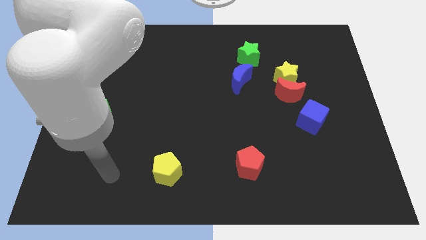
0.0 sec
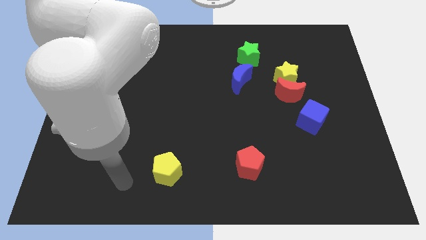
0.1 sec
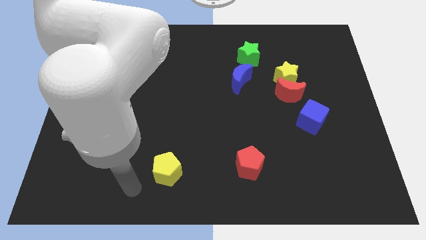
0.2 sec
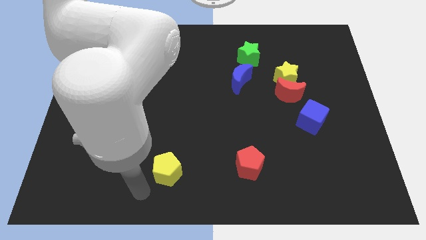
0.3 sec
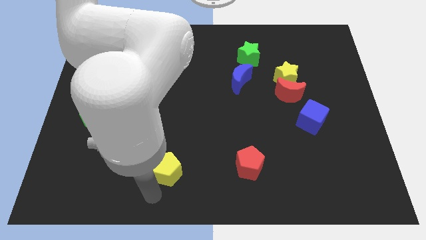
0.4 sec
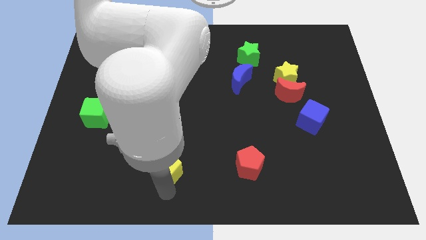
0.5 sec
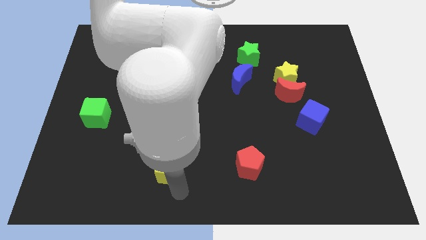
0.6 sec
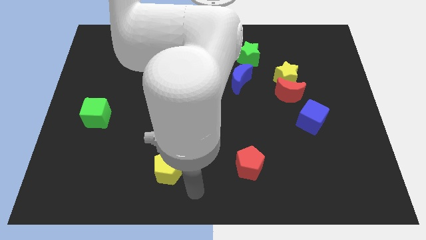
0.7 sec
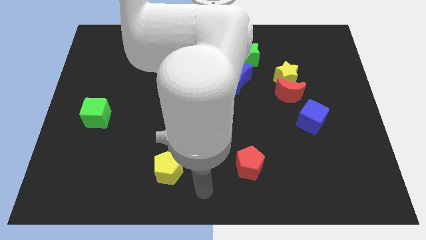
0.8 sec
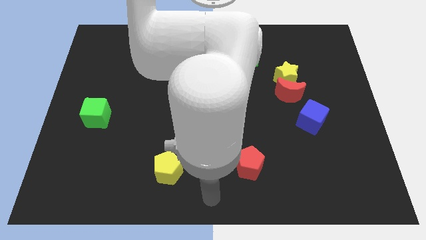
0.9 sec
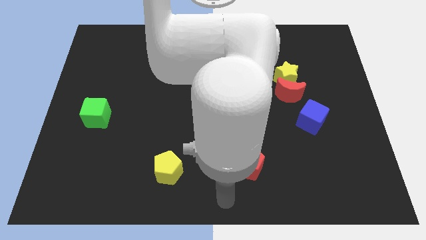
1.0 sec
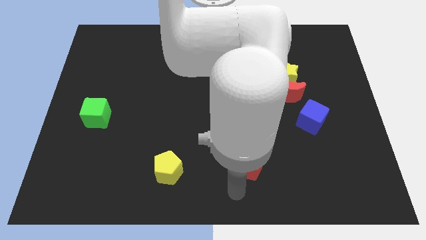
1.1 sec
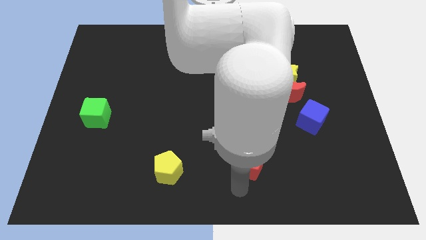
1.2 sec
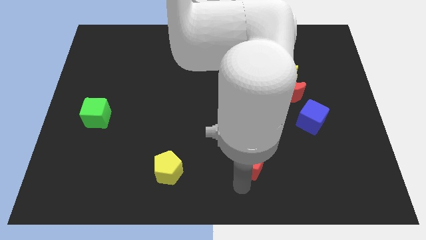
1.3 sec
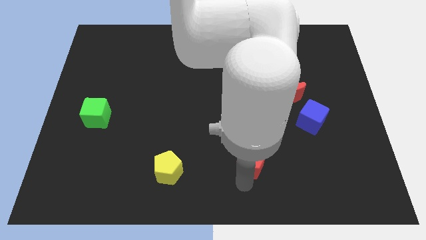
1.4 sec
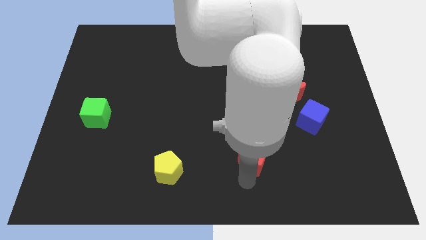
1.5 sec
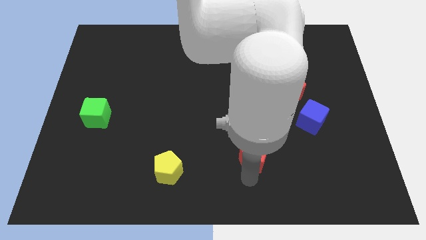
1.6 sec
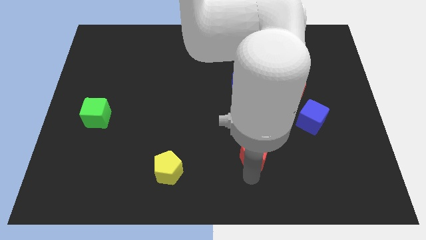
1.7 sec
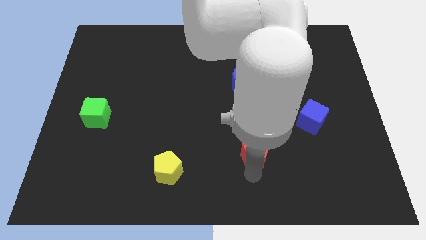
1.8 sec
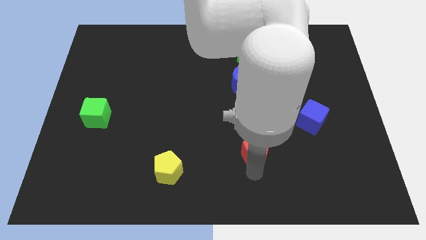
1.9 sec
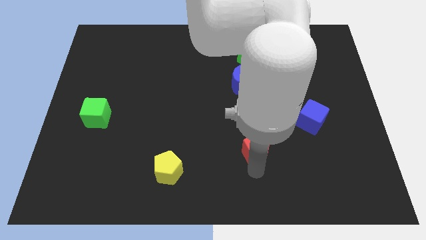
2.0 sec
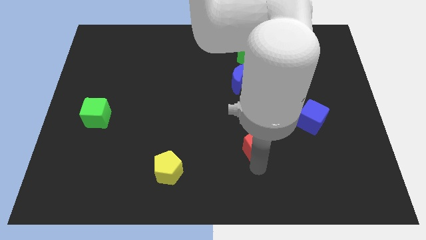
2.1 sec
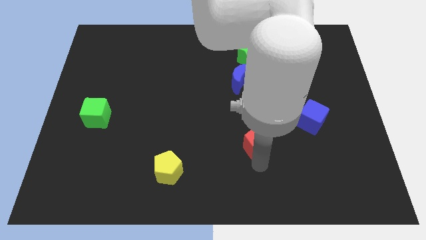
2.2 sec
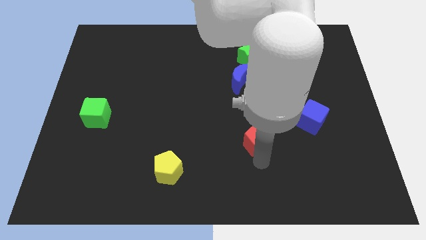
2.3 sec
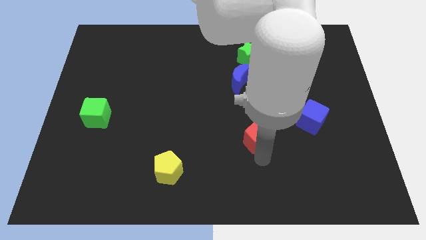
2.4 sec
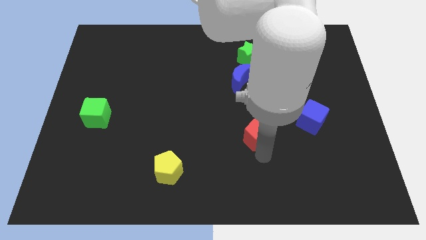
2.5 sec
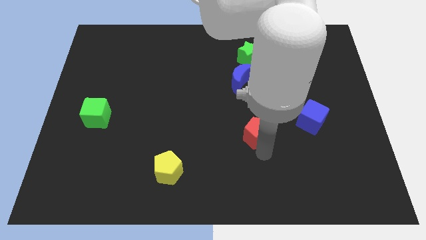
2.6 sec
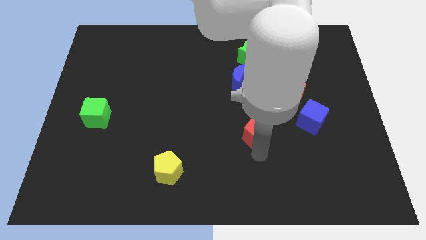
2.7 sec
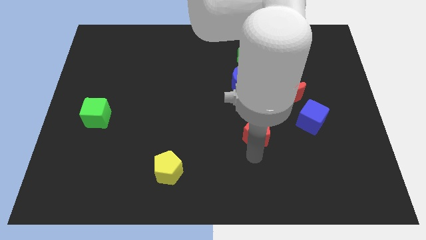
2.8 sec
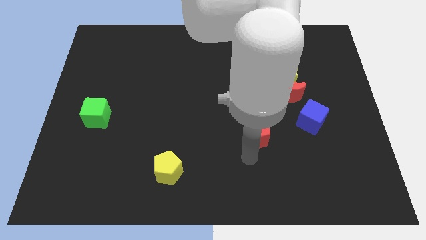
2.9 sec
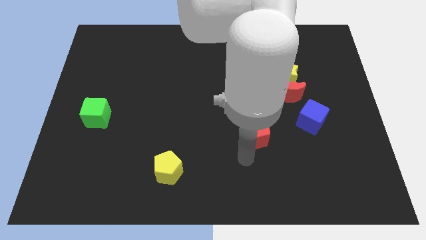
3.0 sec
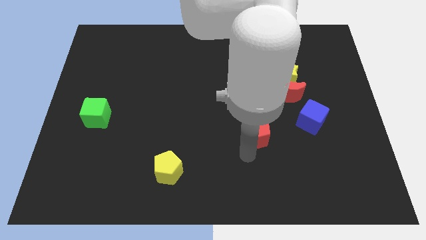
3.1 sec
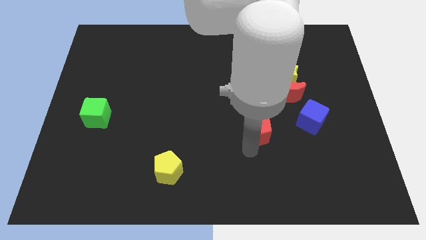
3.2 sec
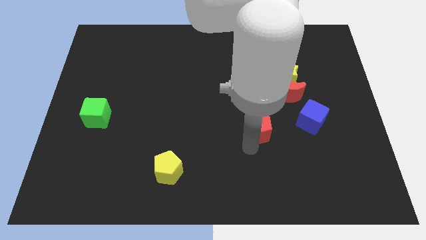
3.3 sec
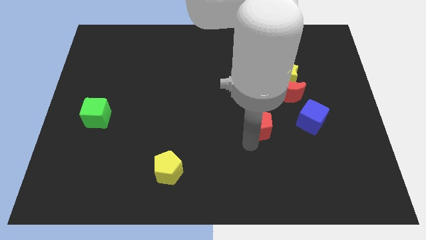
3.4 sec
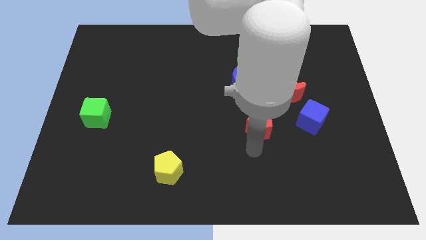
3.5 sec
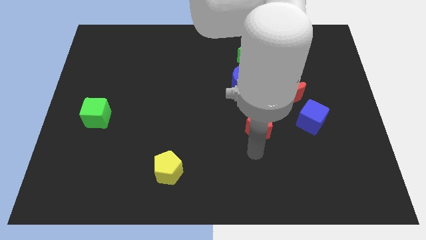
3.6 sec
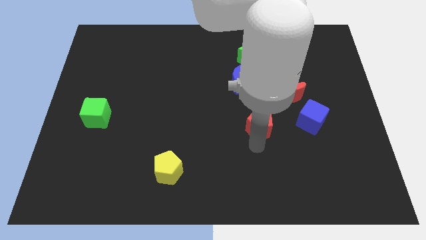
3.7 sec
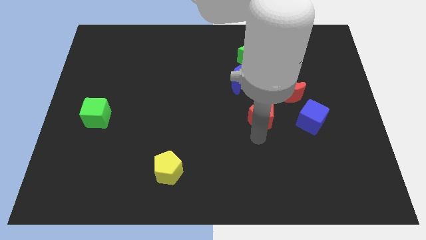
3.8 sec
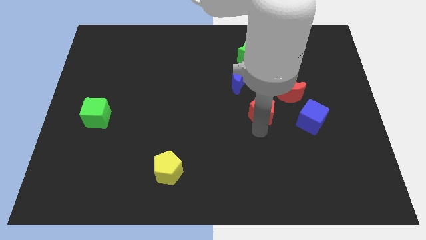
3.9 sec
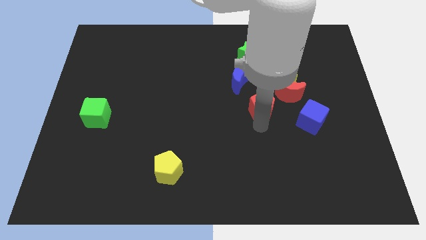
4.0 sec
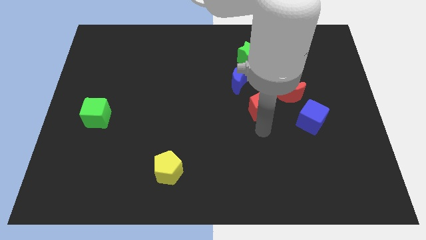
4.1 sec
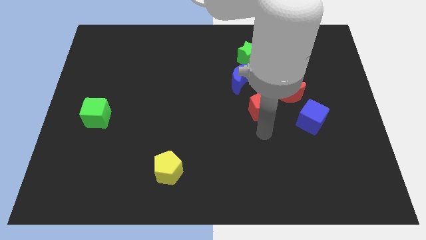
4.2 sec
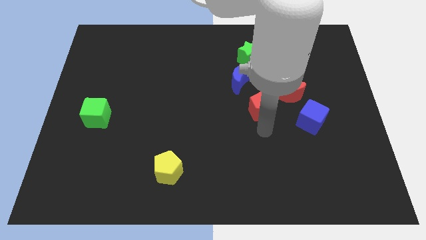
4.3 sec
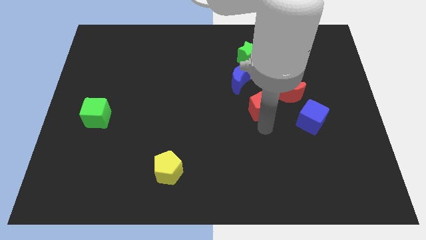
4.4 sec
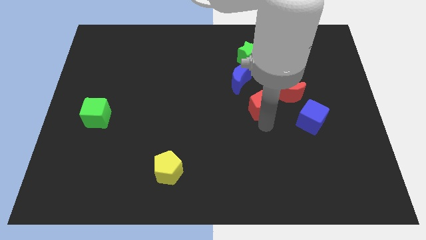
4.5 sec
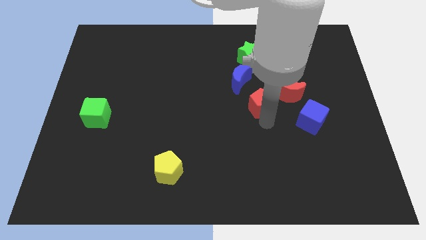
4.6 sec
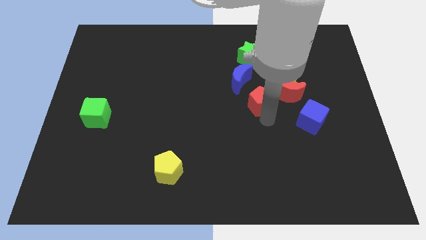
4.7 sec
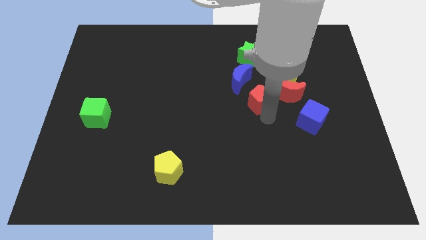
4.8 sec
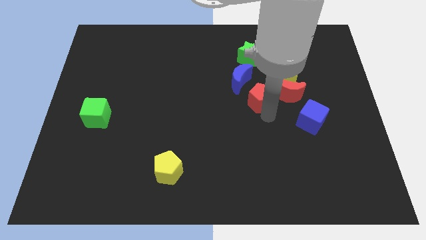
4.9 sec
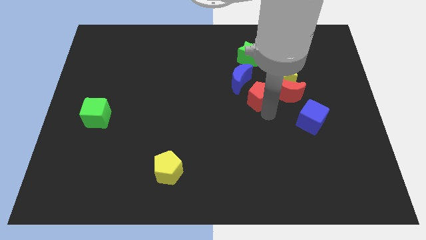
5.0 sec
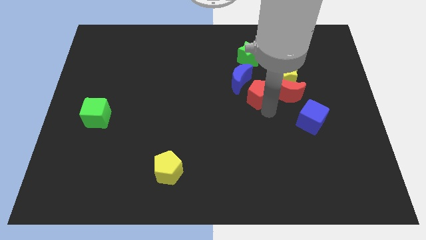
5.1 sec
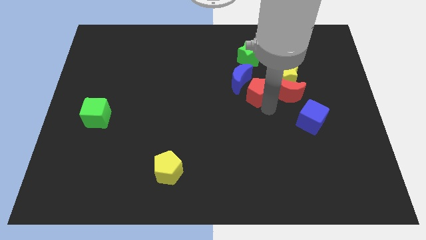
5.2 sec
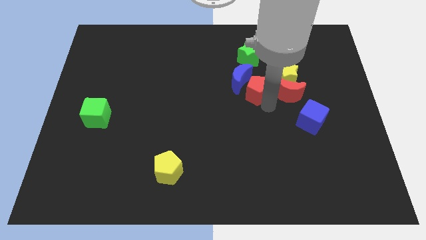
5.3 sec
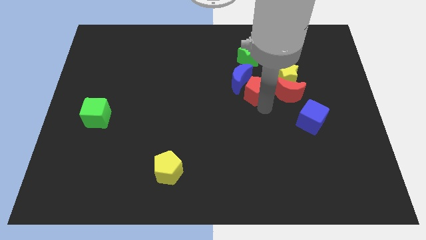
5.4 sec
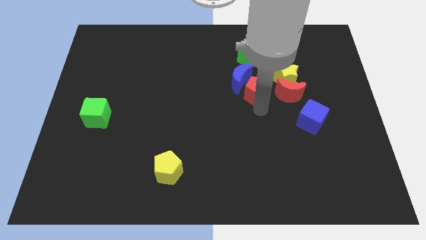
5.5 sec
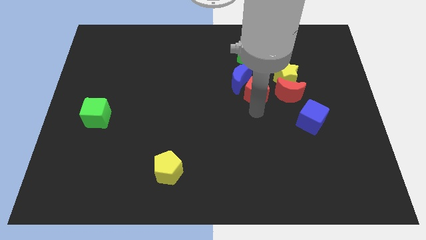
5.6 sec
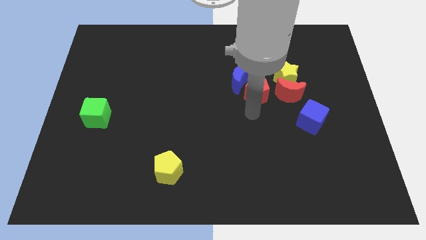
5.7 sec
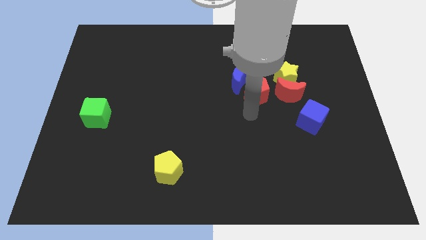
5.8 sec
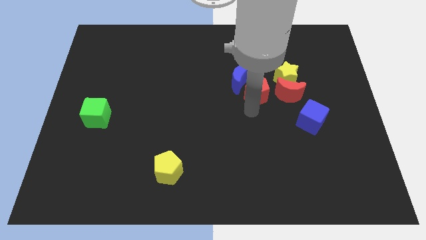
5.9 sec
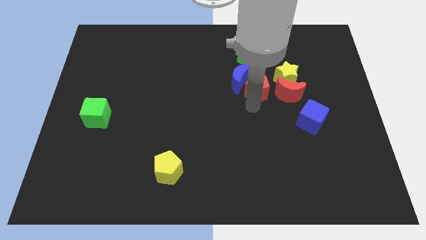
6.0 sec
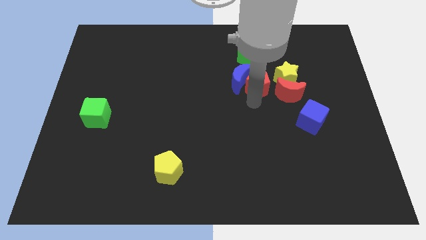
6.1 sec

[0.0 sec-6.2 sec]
move the red pentagon to the top right of the blue moon

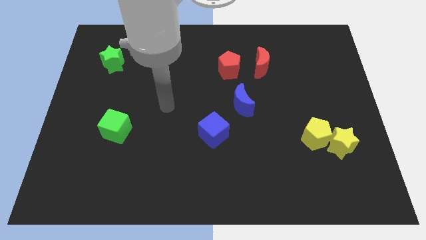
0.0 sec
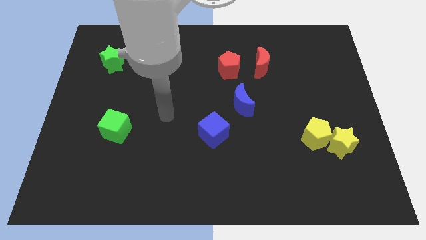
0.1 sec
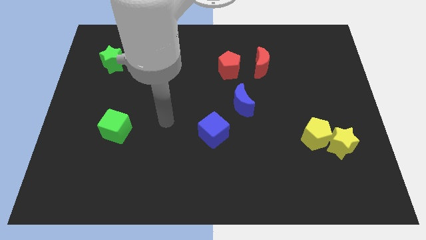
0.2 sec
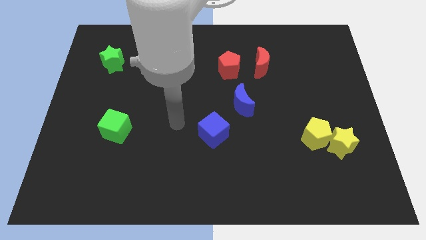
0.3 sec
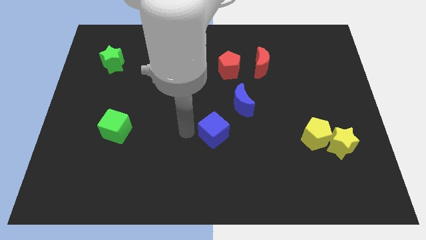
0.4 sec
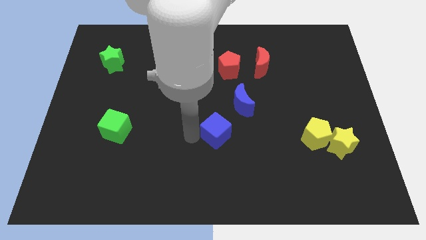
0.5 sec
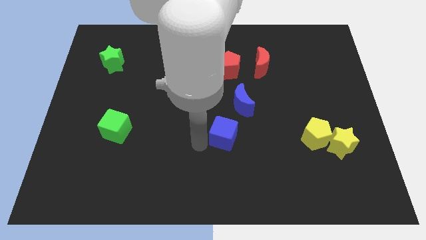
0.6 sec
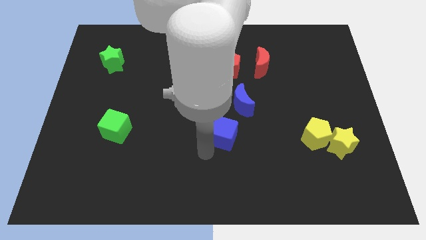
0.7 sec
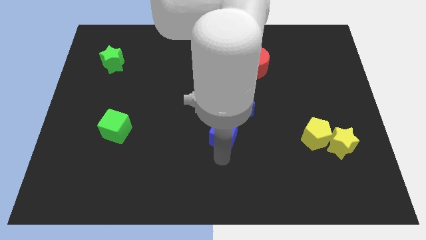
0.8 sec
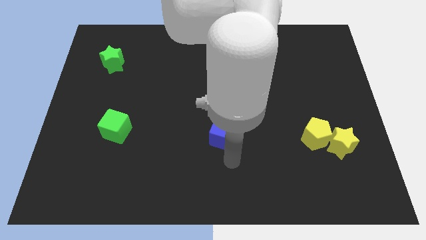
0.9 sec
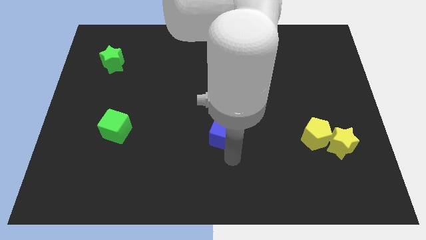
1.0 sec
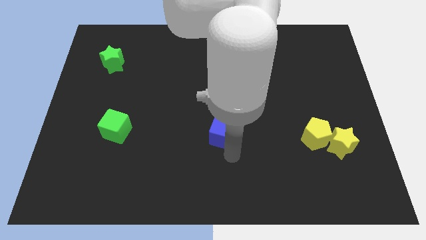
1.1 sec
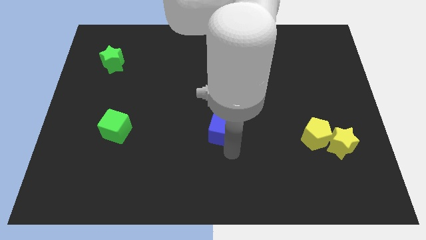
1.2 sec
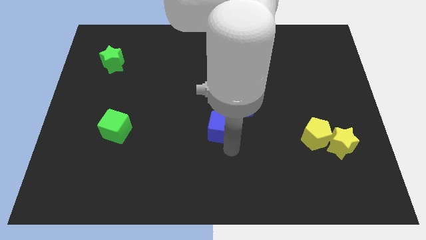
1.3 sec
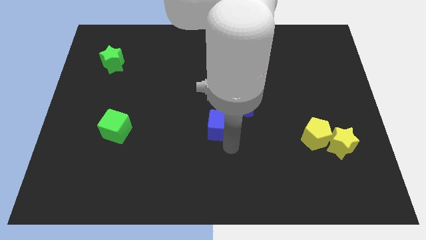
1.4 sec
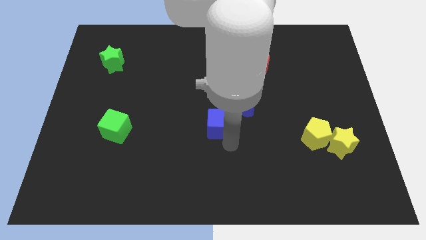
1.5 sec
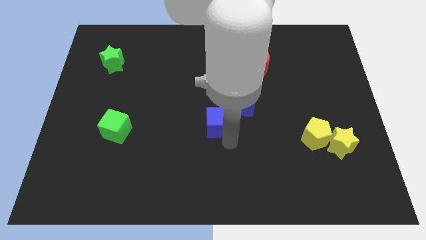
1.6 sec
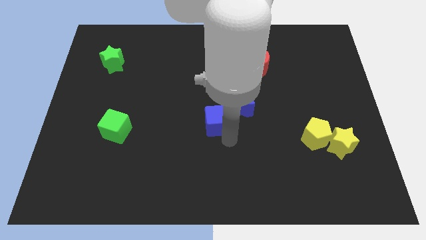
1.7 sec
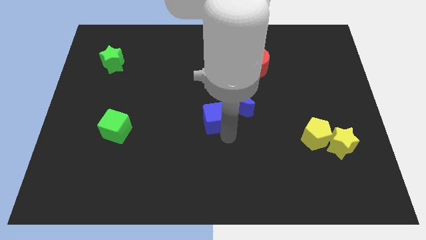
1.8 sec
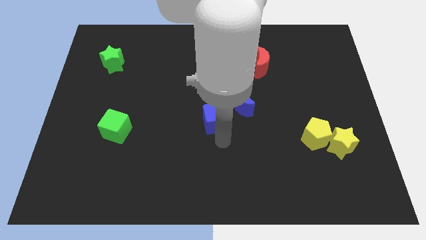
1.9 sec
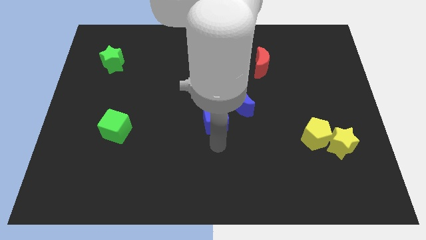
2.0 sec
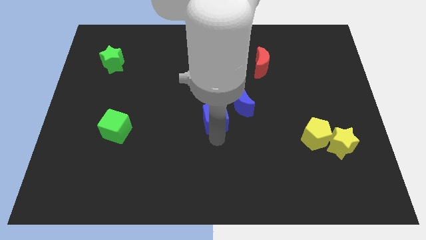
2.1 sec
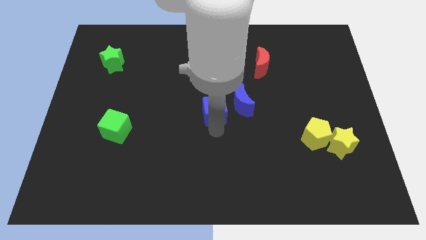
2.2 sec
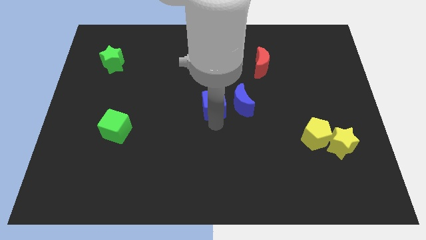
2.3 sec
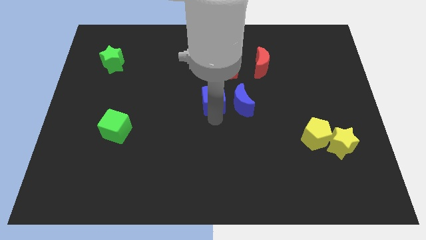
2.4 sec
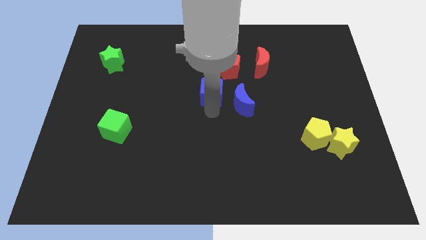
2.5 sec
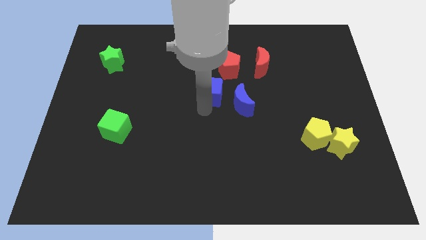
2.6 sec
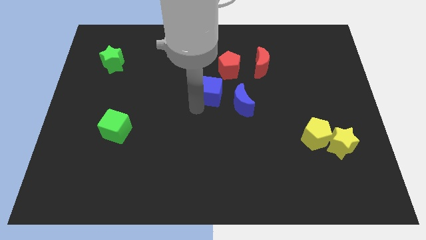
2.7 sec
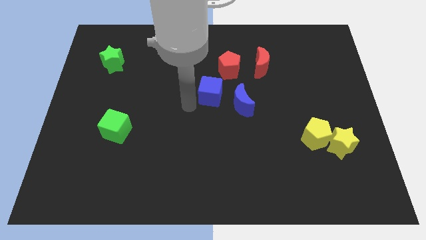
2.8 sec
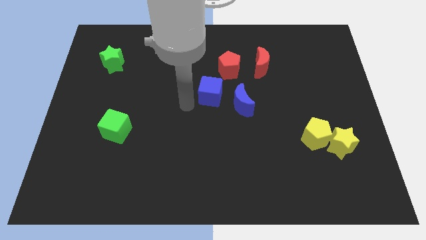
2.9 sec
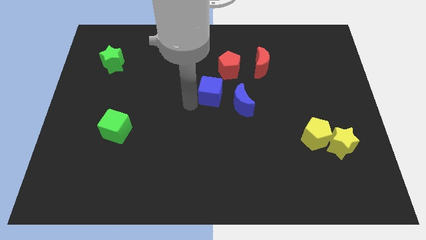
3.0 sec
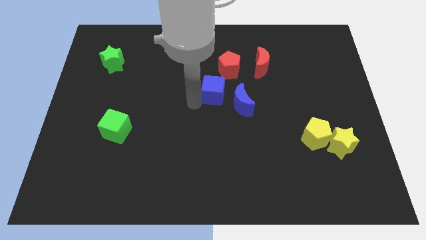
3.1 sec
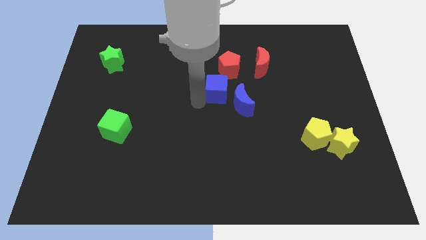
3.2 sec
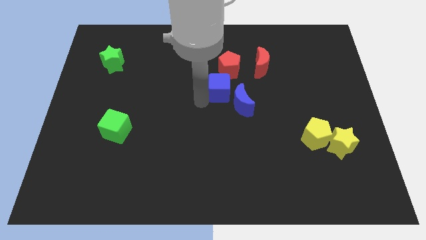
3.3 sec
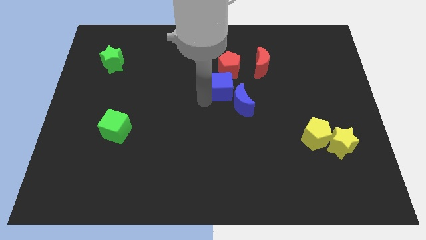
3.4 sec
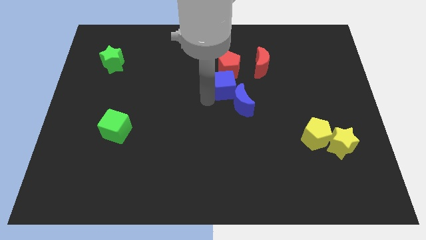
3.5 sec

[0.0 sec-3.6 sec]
push the blue cube to the bottom left of the red moon
